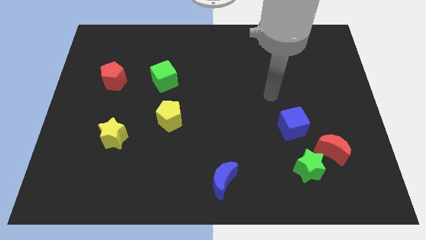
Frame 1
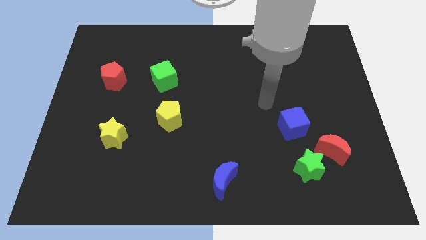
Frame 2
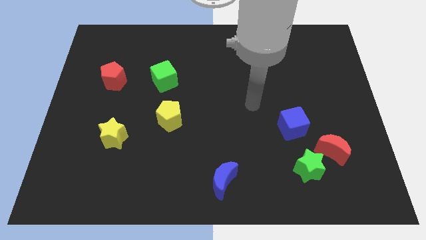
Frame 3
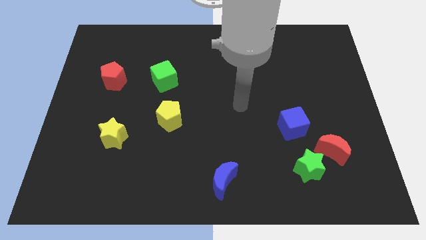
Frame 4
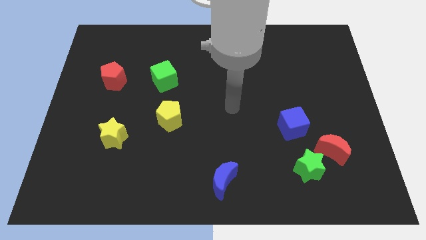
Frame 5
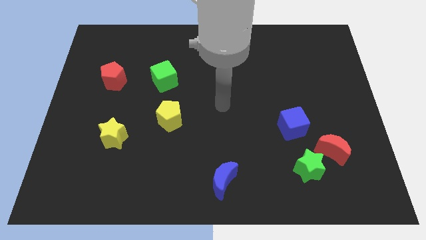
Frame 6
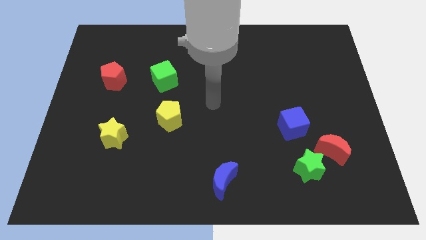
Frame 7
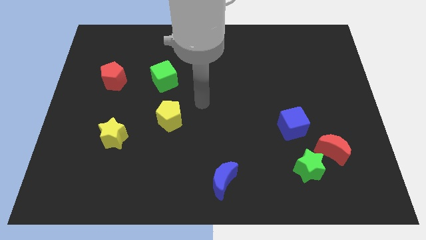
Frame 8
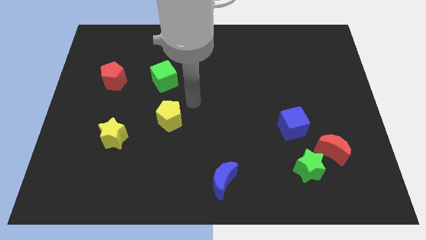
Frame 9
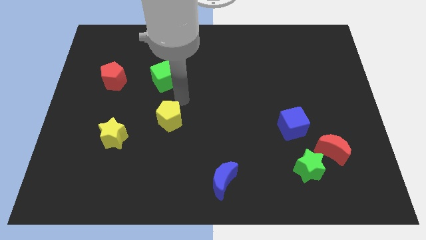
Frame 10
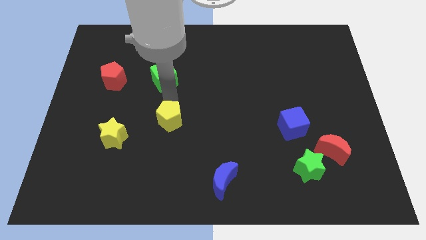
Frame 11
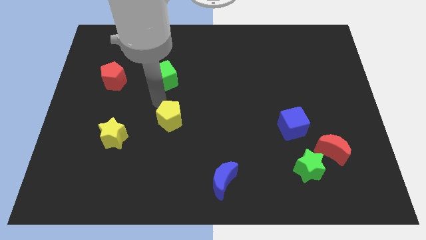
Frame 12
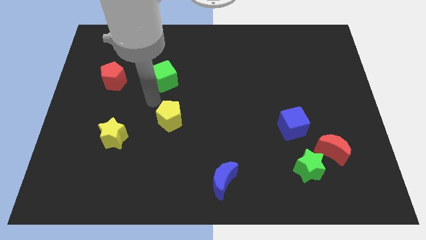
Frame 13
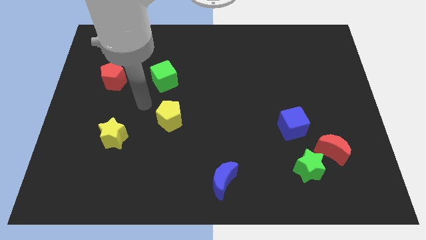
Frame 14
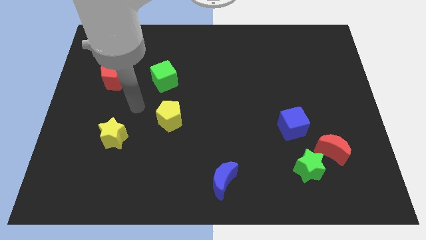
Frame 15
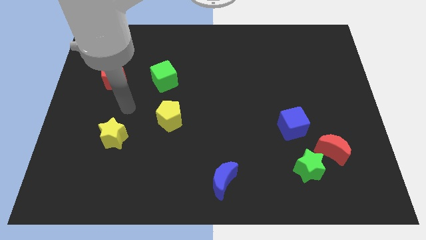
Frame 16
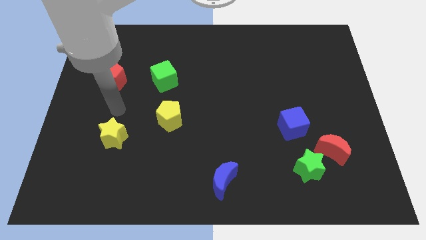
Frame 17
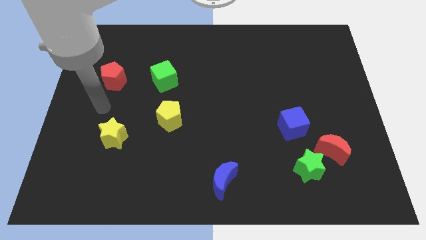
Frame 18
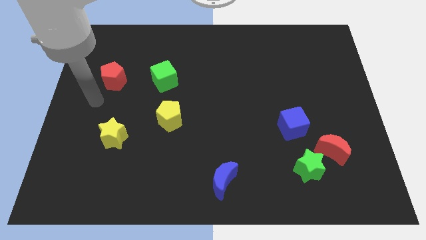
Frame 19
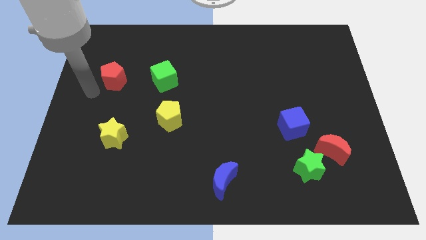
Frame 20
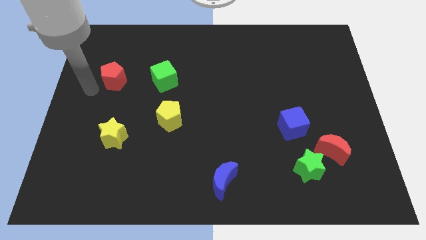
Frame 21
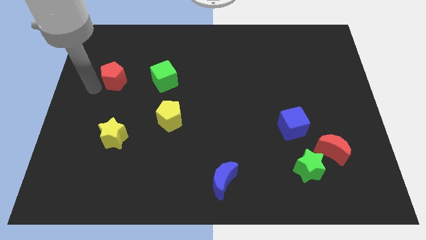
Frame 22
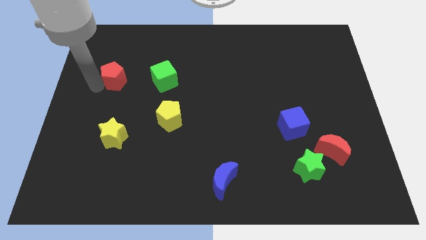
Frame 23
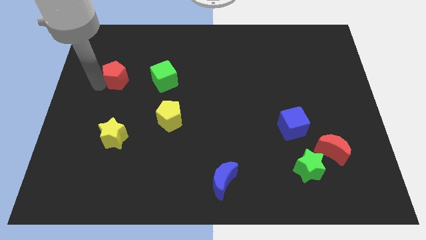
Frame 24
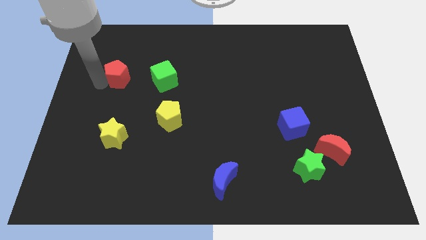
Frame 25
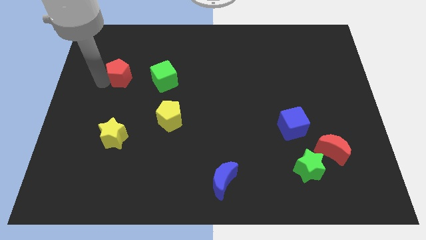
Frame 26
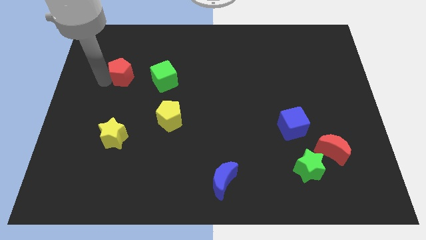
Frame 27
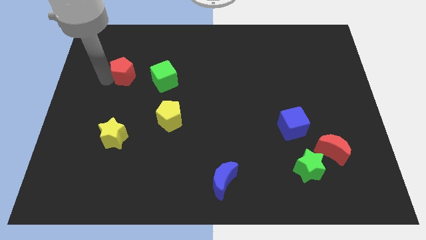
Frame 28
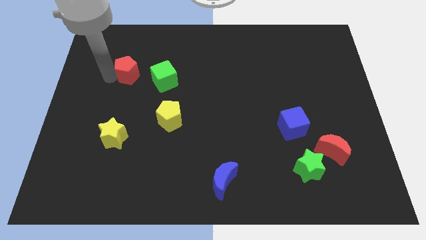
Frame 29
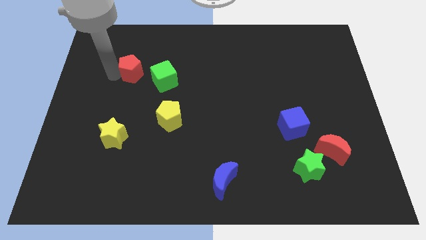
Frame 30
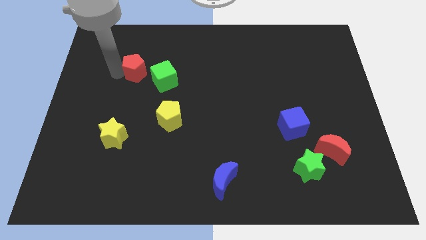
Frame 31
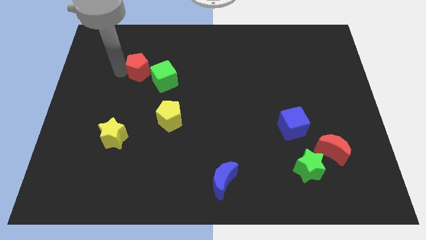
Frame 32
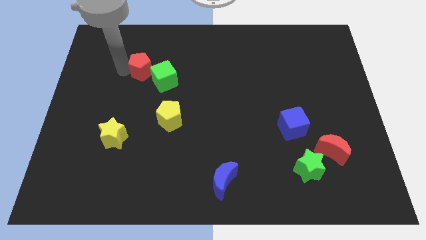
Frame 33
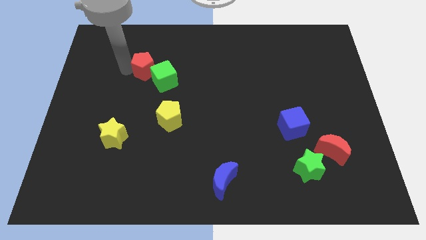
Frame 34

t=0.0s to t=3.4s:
slide the red pentagon right a little

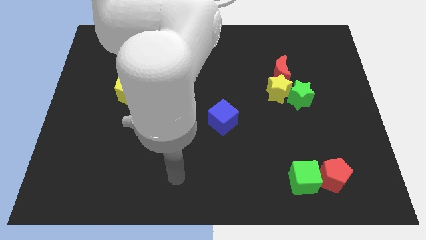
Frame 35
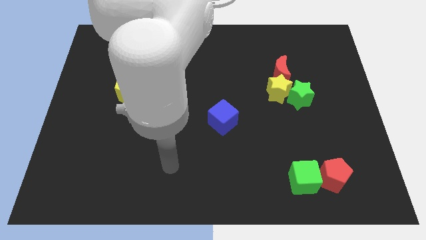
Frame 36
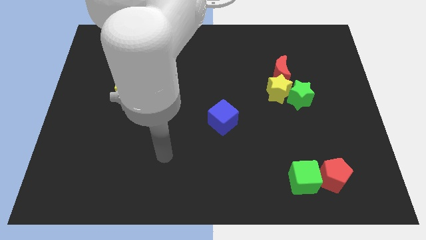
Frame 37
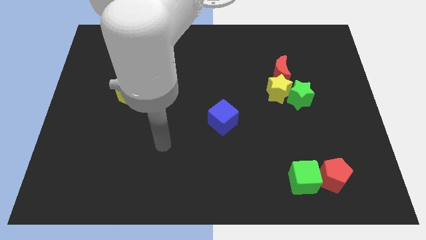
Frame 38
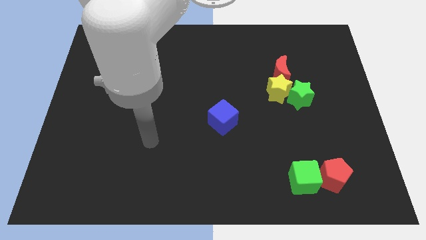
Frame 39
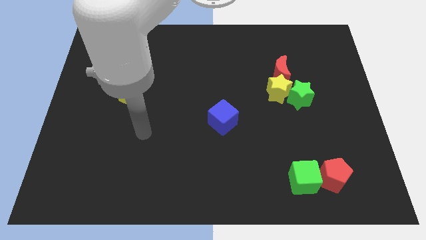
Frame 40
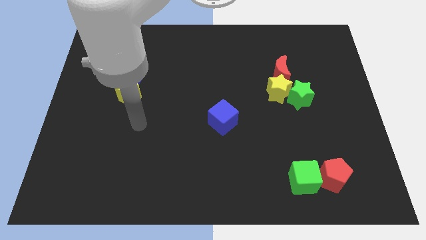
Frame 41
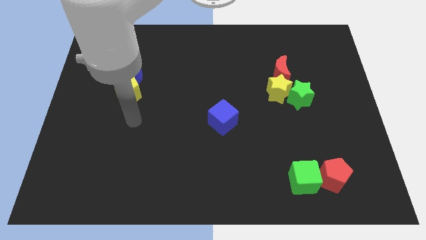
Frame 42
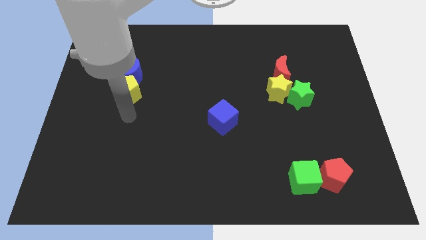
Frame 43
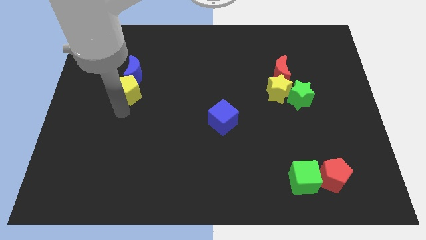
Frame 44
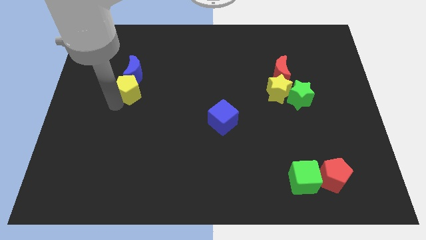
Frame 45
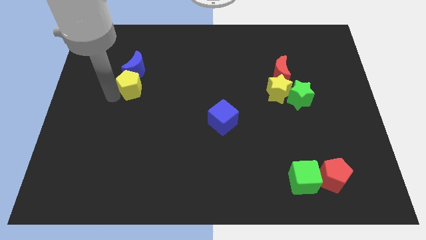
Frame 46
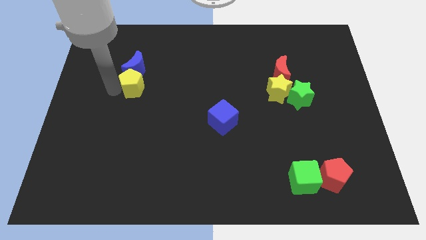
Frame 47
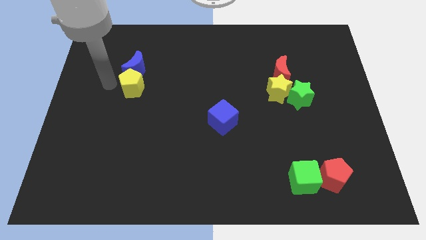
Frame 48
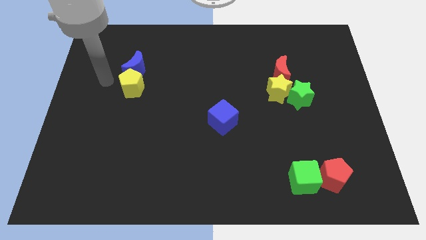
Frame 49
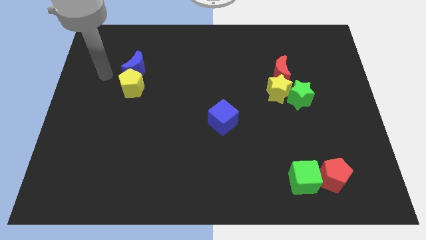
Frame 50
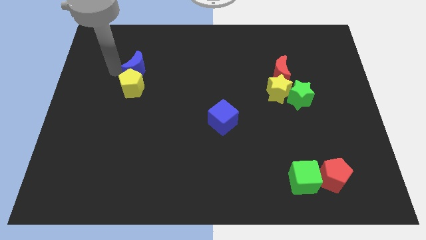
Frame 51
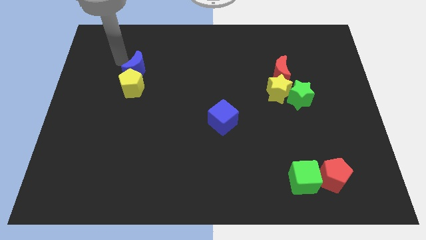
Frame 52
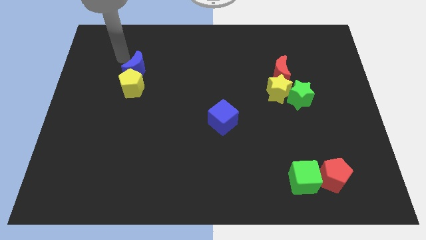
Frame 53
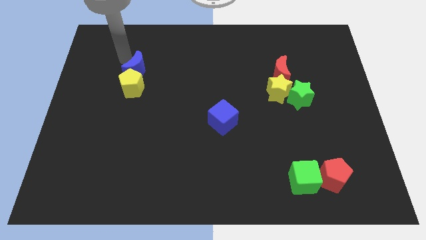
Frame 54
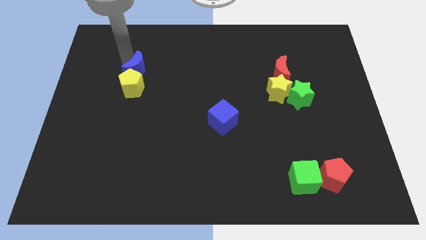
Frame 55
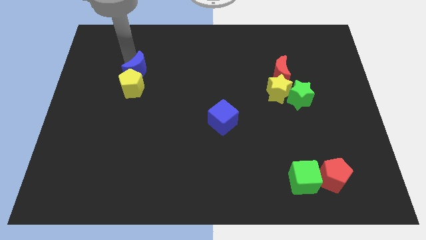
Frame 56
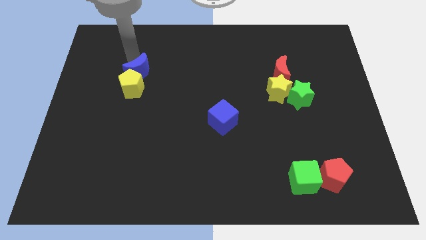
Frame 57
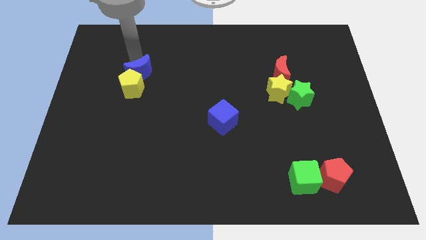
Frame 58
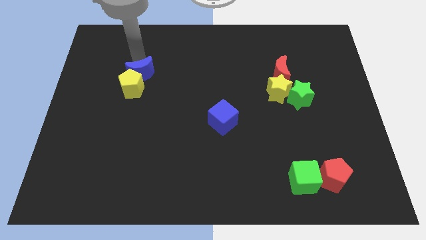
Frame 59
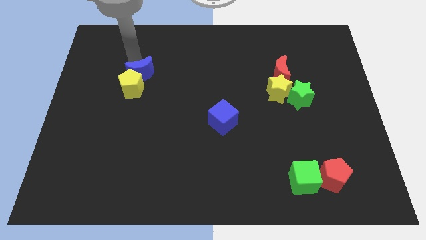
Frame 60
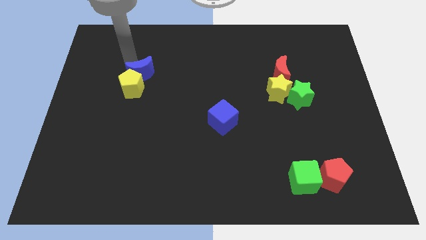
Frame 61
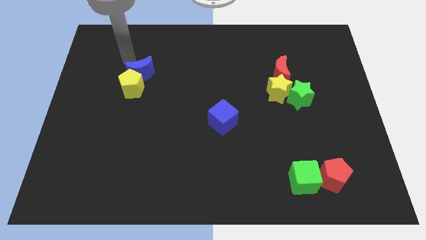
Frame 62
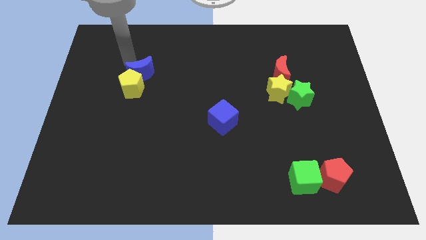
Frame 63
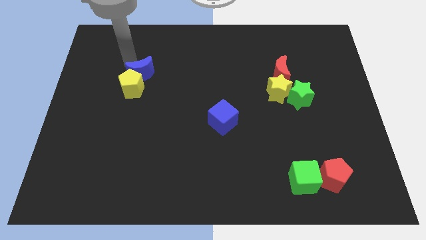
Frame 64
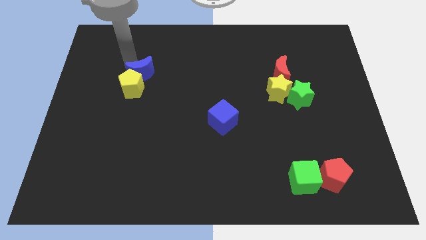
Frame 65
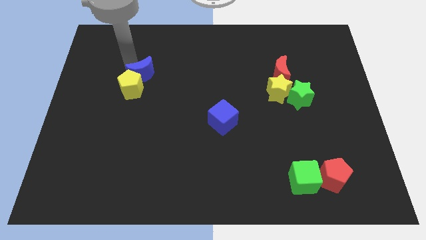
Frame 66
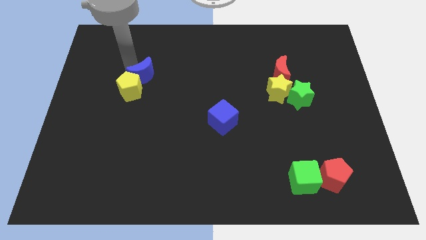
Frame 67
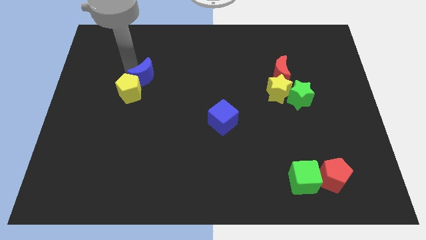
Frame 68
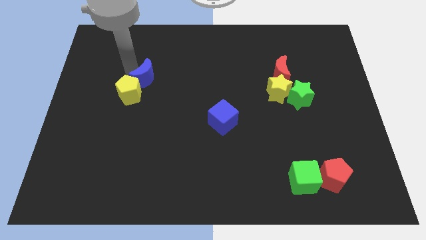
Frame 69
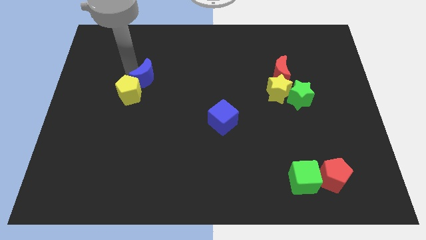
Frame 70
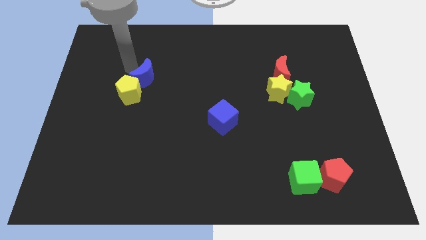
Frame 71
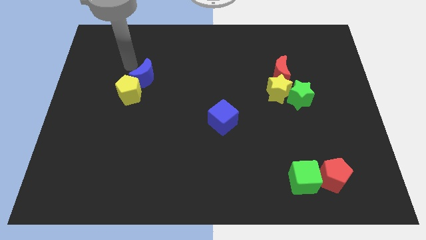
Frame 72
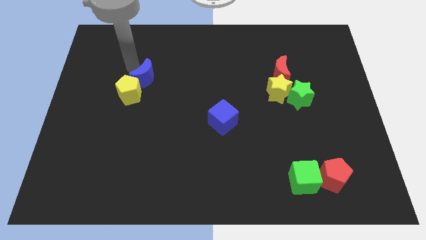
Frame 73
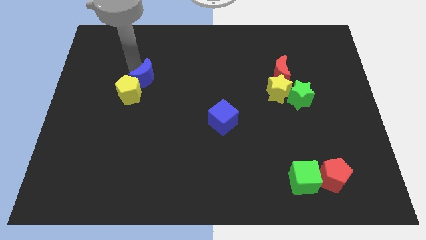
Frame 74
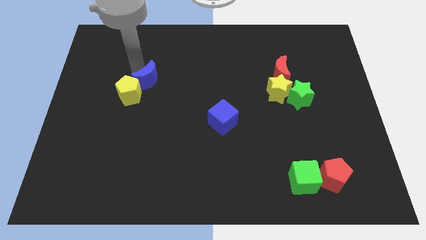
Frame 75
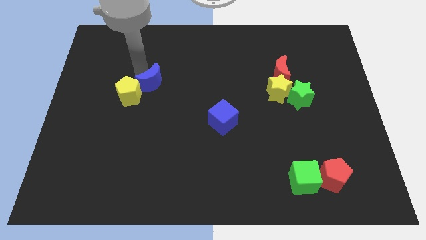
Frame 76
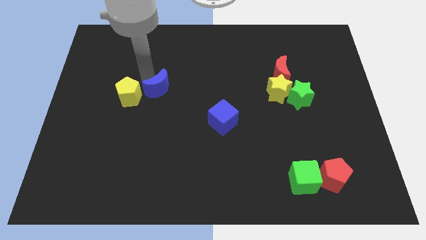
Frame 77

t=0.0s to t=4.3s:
move the blue moon a little downwards and to the right

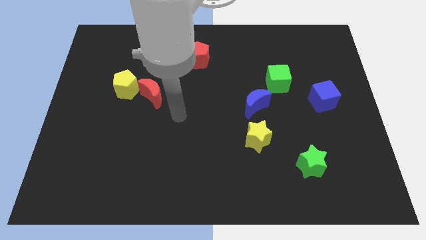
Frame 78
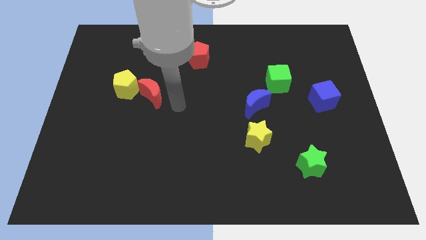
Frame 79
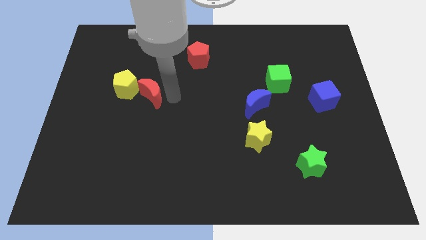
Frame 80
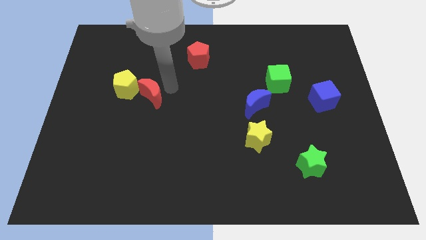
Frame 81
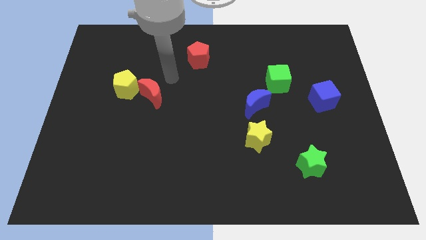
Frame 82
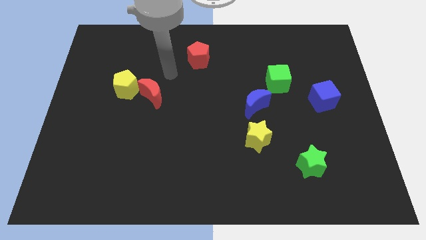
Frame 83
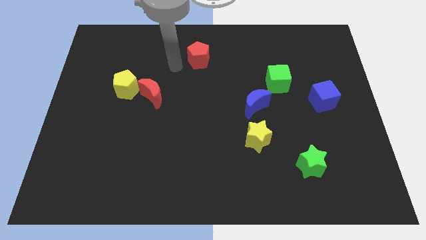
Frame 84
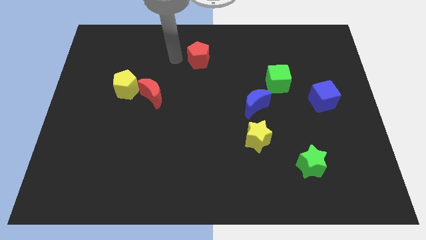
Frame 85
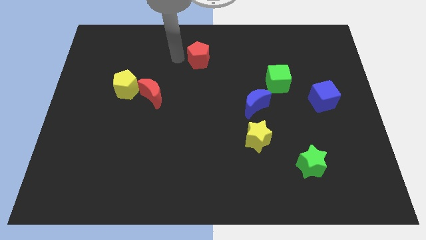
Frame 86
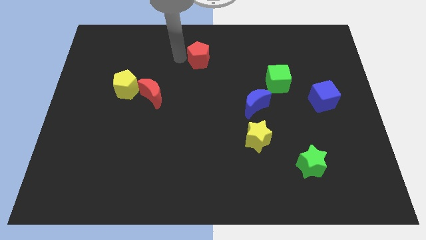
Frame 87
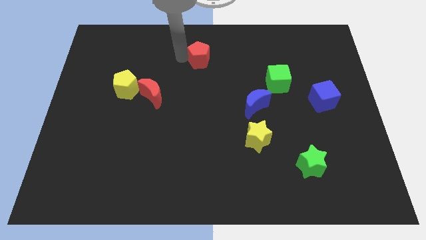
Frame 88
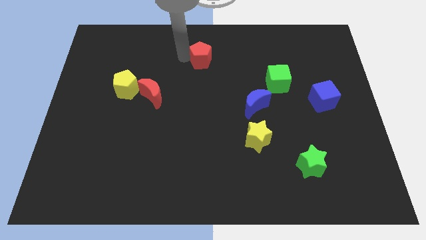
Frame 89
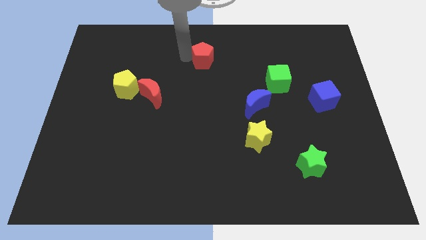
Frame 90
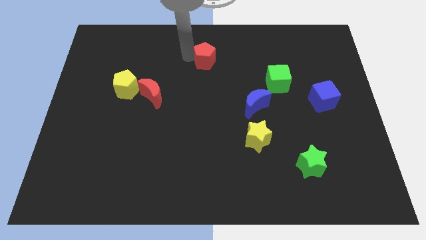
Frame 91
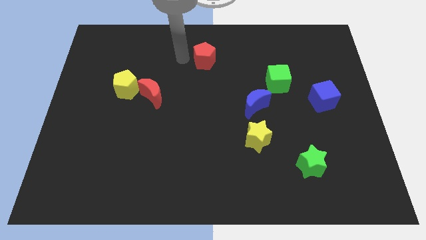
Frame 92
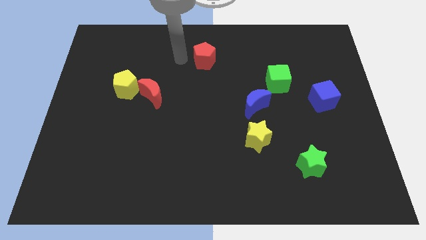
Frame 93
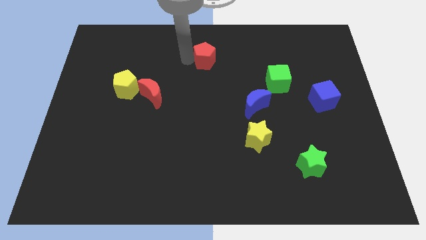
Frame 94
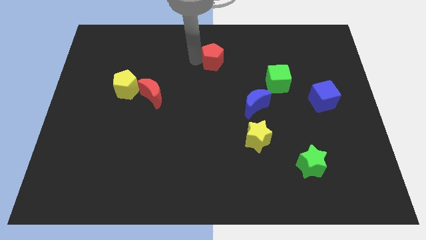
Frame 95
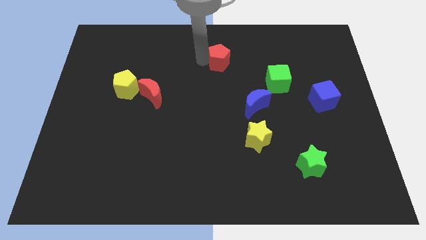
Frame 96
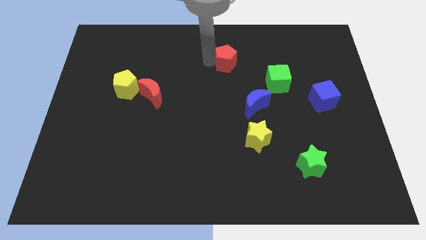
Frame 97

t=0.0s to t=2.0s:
slide the red pentagon a little to the right
